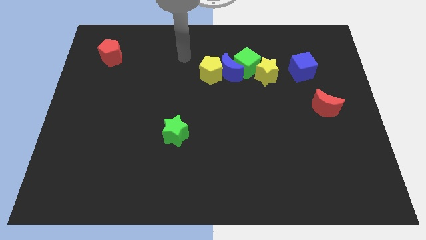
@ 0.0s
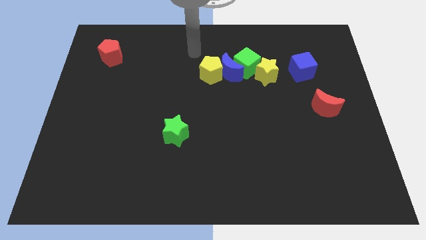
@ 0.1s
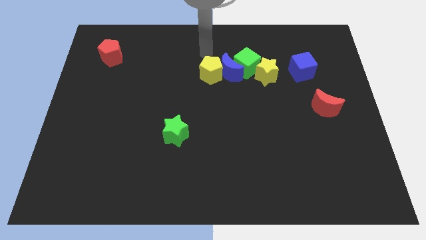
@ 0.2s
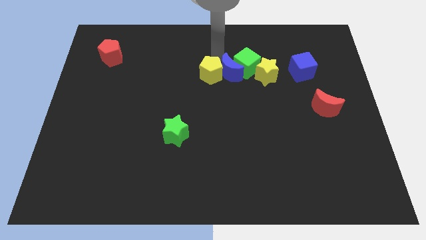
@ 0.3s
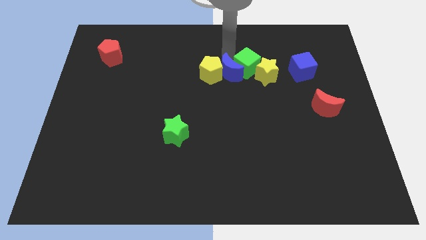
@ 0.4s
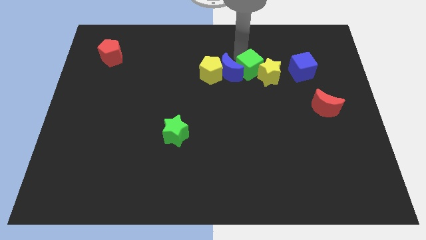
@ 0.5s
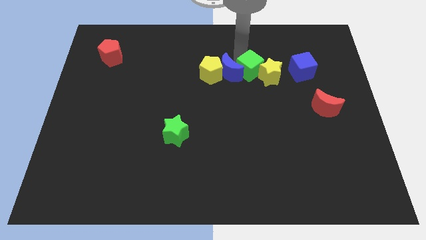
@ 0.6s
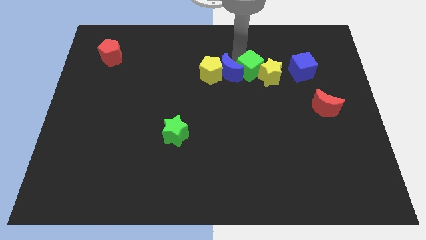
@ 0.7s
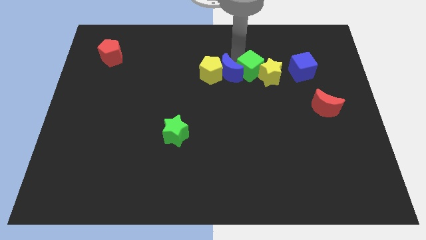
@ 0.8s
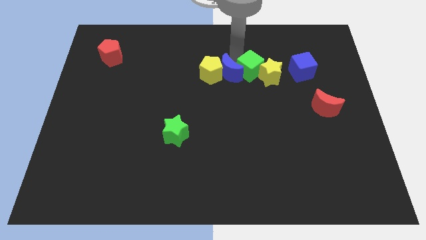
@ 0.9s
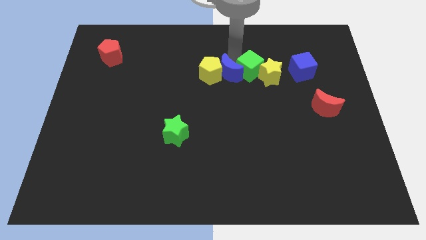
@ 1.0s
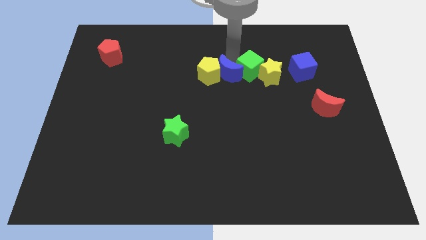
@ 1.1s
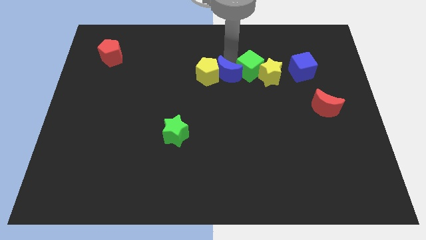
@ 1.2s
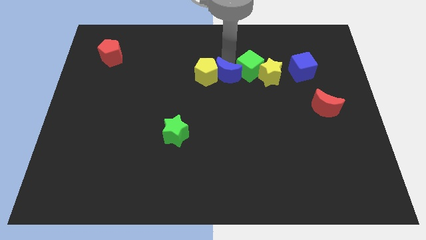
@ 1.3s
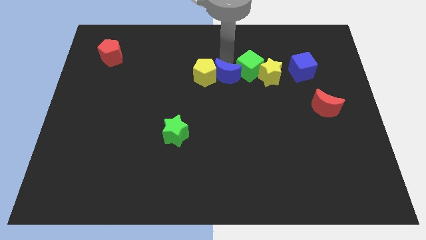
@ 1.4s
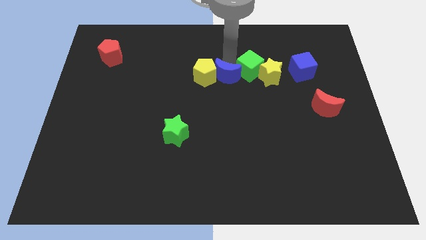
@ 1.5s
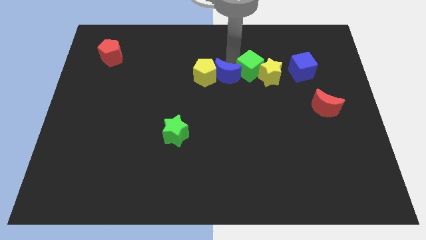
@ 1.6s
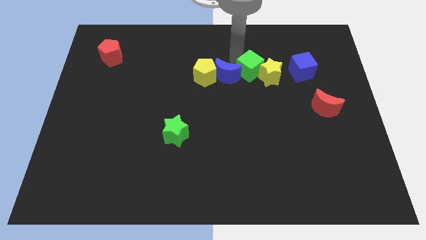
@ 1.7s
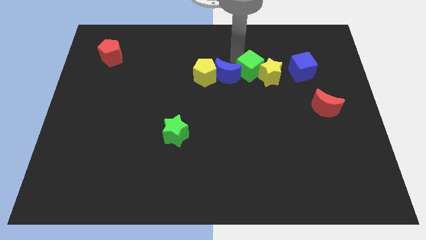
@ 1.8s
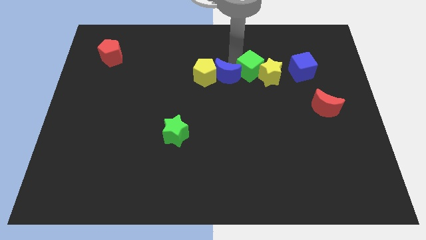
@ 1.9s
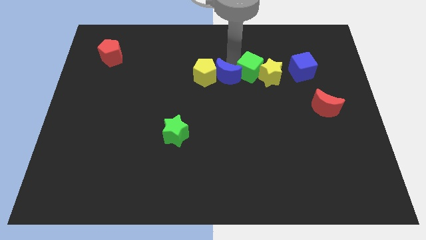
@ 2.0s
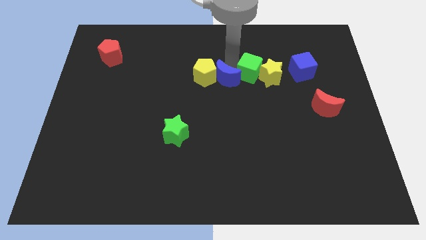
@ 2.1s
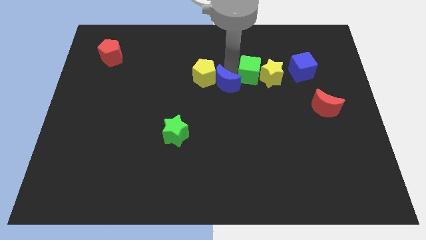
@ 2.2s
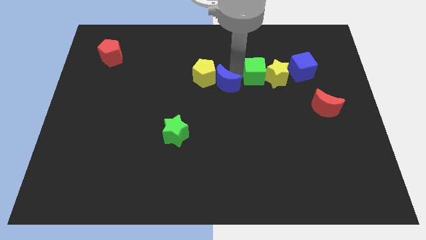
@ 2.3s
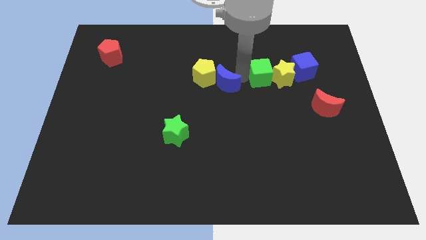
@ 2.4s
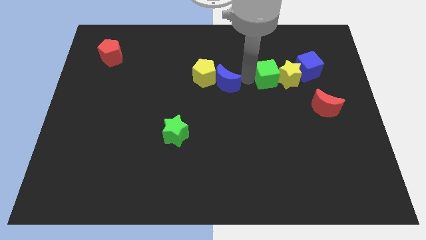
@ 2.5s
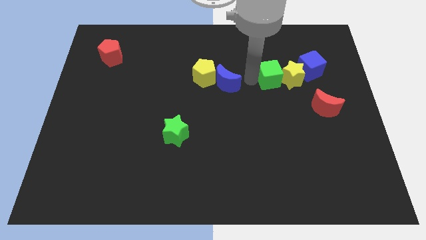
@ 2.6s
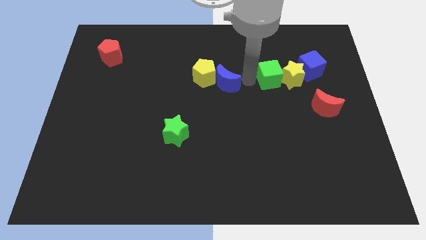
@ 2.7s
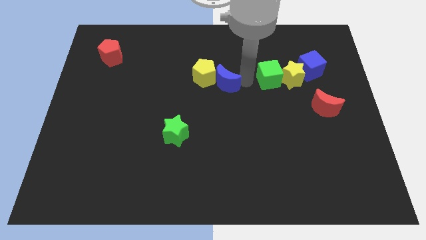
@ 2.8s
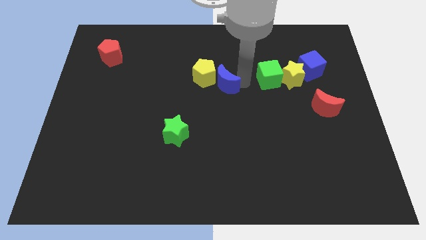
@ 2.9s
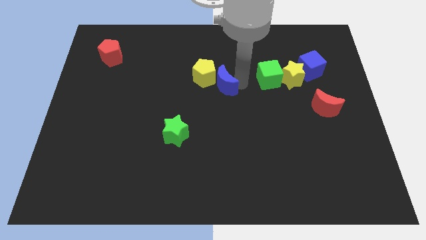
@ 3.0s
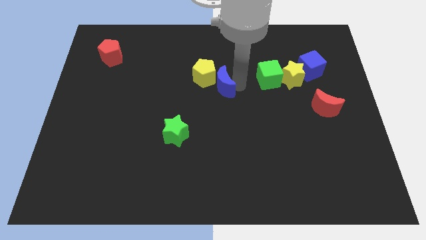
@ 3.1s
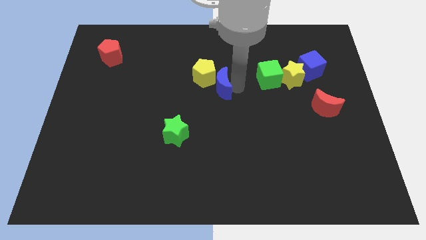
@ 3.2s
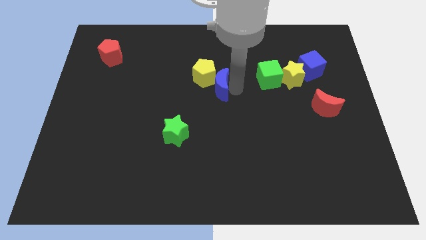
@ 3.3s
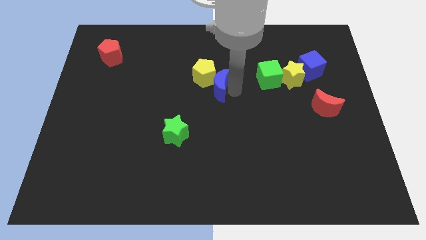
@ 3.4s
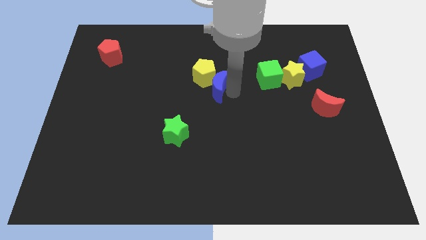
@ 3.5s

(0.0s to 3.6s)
pull the blue moon apart from the yellow pentagon, green cube, and yellow star

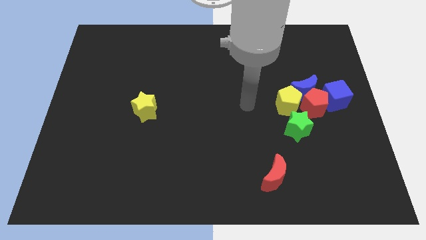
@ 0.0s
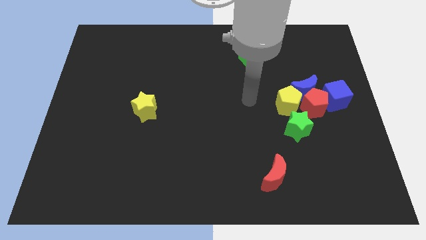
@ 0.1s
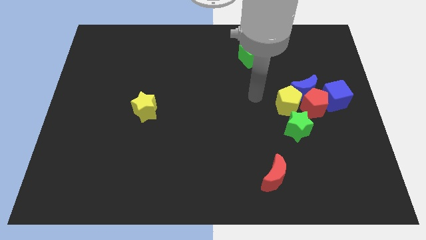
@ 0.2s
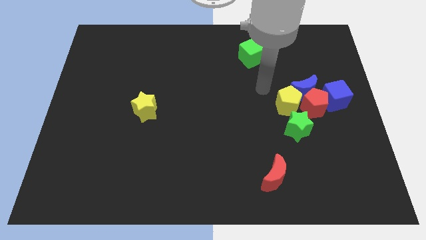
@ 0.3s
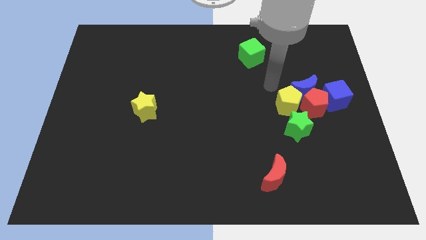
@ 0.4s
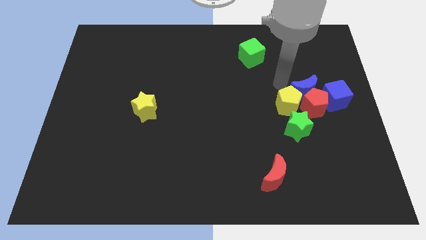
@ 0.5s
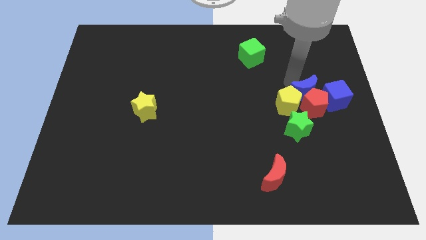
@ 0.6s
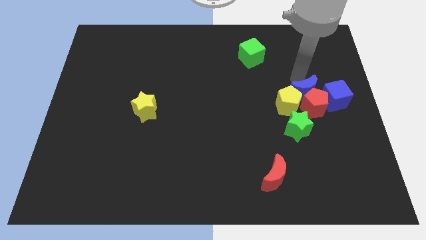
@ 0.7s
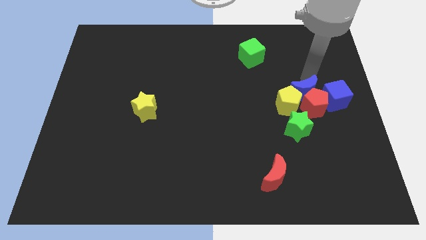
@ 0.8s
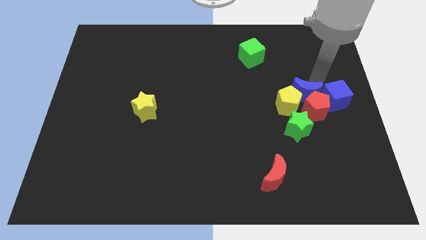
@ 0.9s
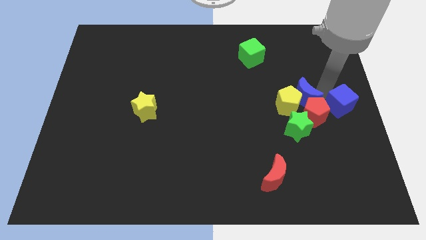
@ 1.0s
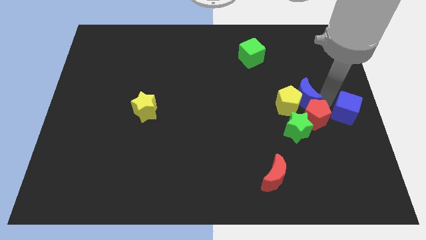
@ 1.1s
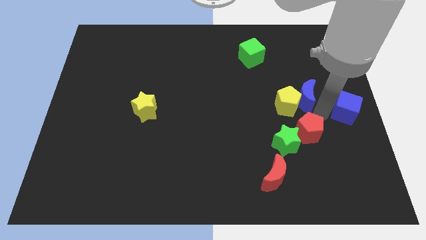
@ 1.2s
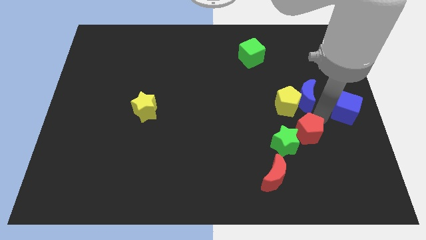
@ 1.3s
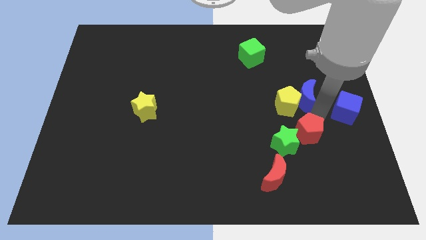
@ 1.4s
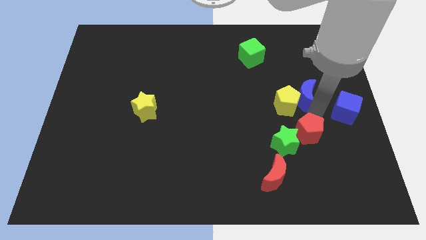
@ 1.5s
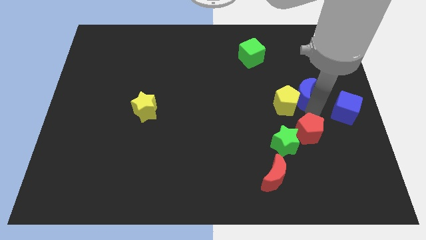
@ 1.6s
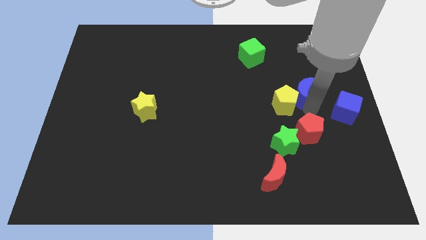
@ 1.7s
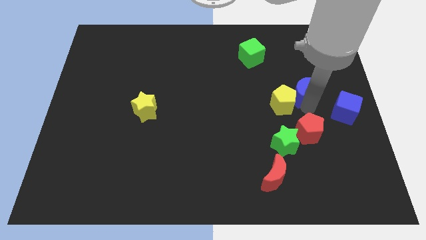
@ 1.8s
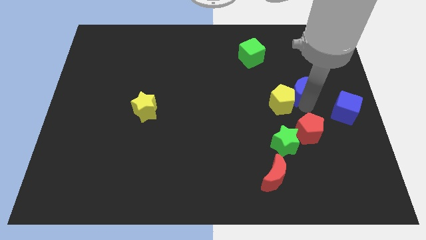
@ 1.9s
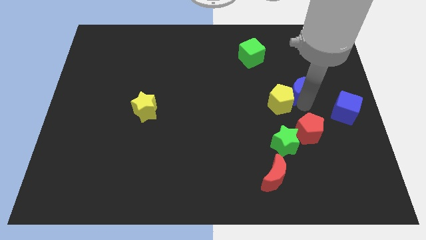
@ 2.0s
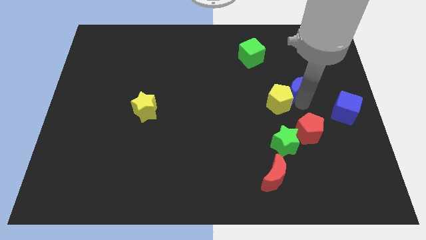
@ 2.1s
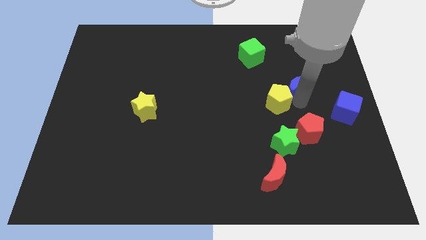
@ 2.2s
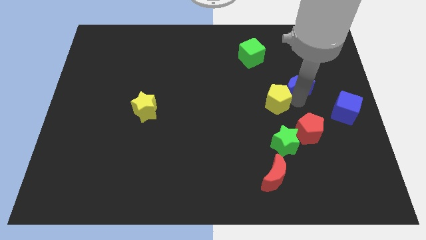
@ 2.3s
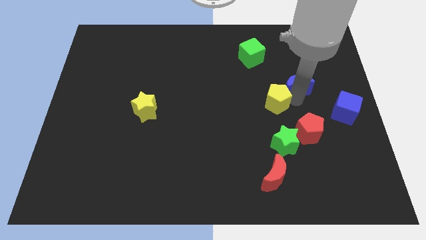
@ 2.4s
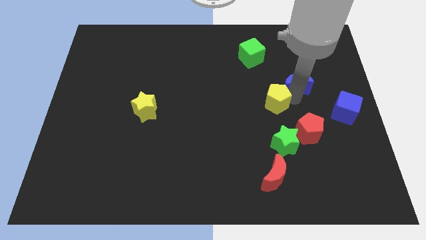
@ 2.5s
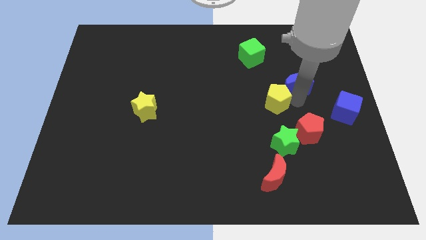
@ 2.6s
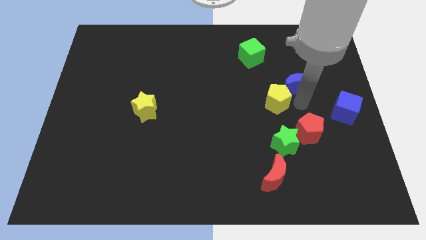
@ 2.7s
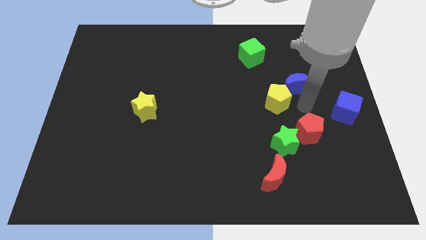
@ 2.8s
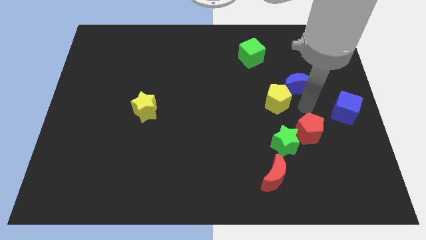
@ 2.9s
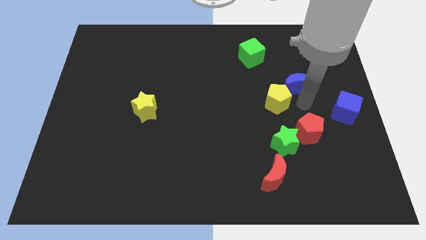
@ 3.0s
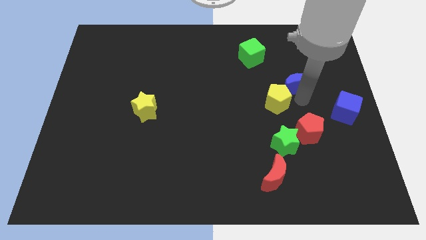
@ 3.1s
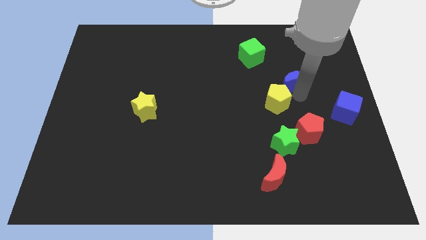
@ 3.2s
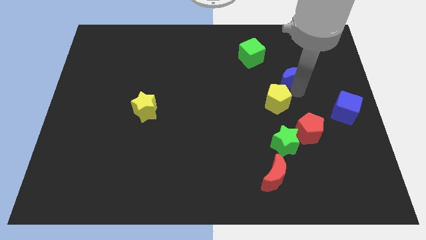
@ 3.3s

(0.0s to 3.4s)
pull the blue moon apart from the group of blocks

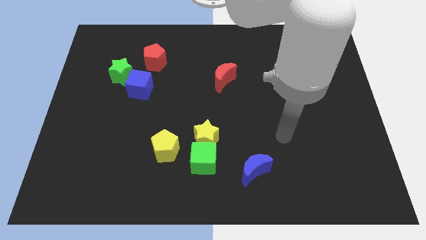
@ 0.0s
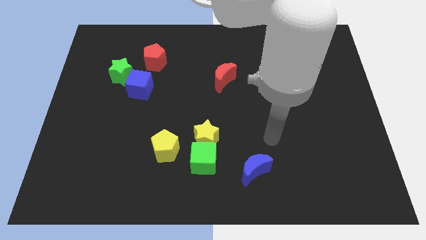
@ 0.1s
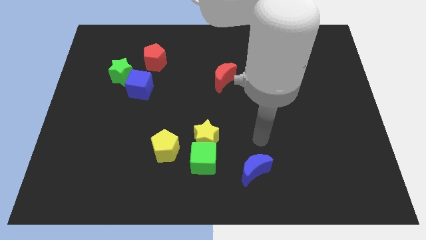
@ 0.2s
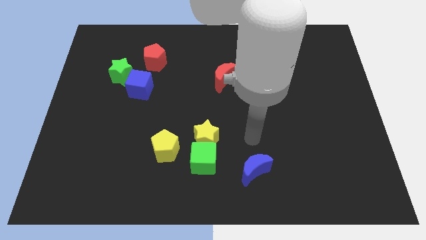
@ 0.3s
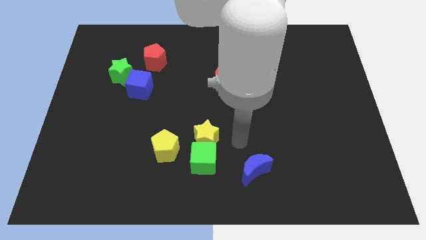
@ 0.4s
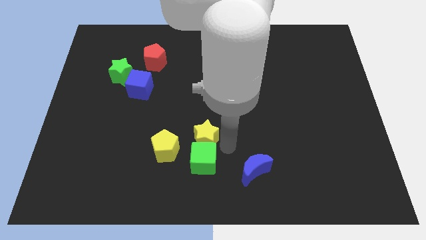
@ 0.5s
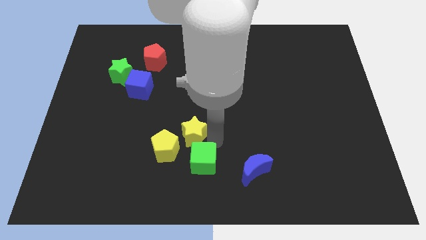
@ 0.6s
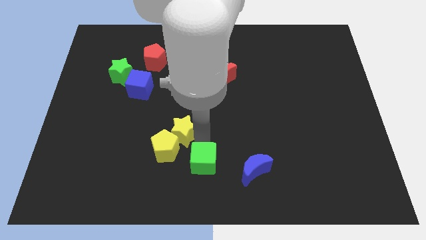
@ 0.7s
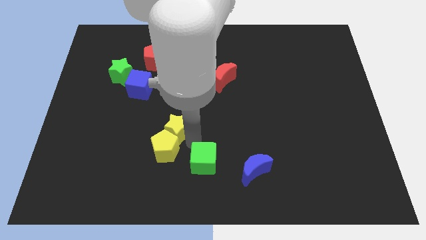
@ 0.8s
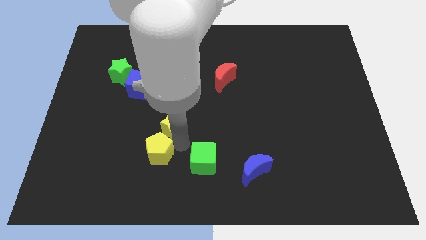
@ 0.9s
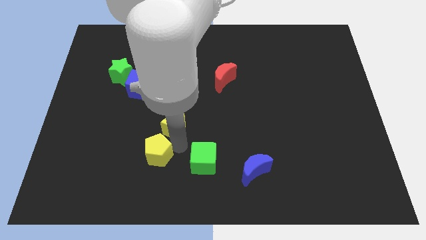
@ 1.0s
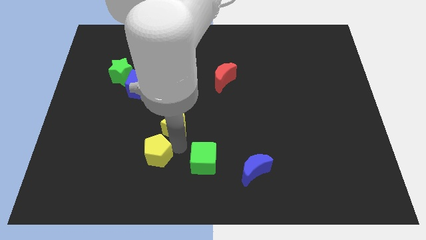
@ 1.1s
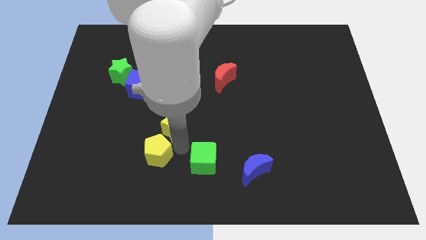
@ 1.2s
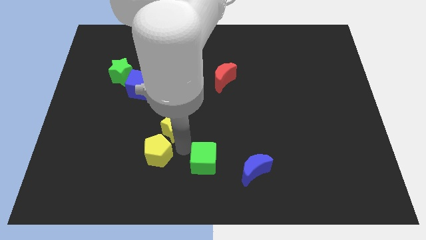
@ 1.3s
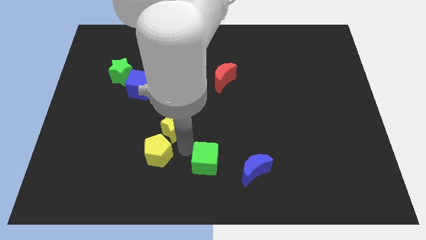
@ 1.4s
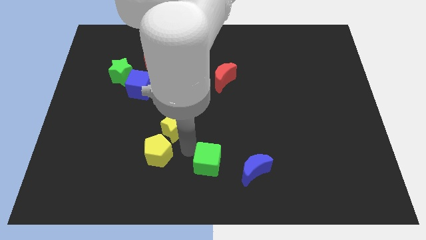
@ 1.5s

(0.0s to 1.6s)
pull the green cube apart from the yellow star and yellow pentagon

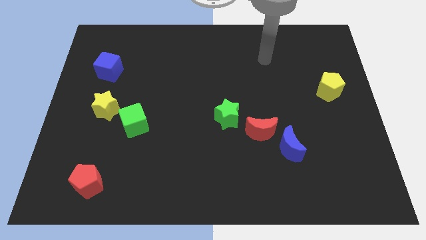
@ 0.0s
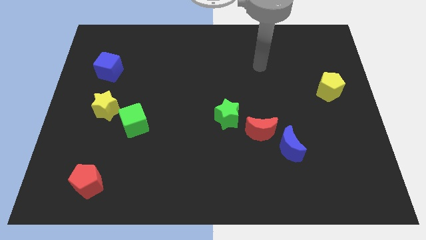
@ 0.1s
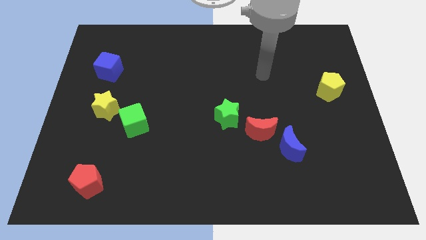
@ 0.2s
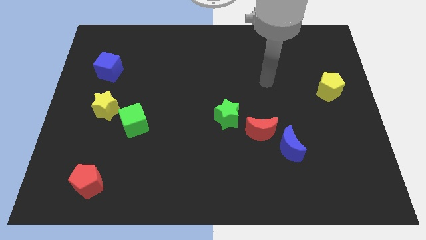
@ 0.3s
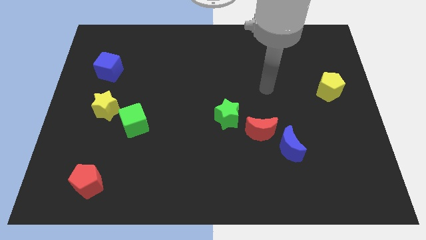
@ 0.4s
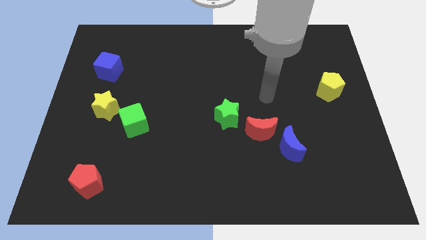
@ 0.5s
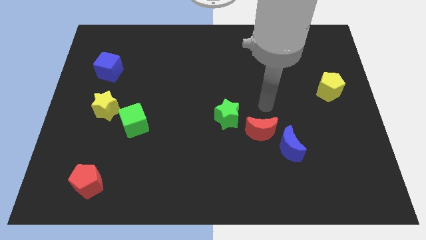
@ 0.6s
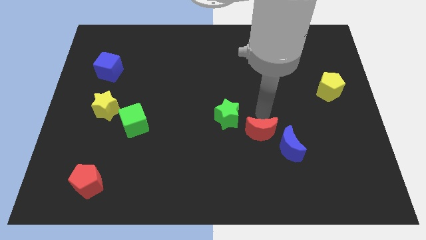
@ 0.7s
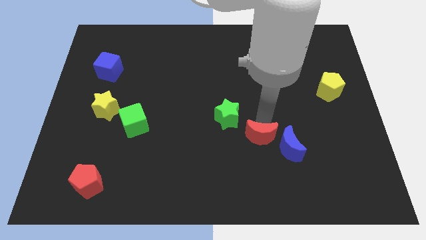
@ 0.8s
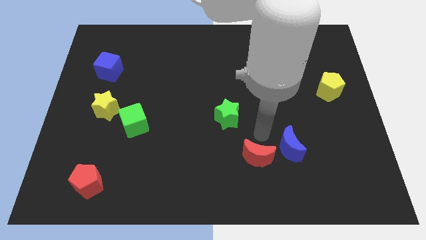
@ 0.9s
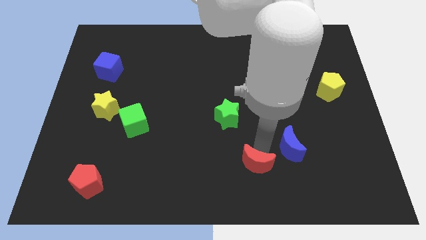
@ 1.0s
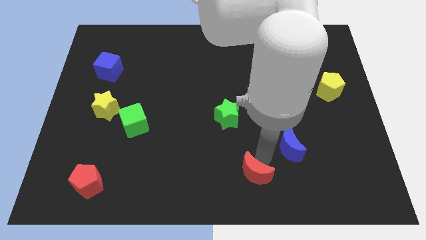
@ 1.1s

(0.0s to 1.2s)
pull the blue moon apart from the red moon
